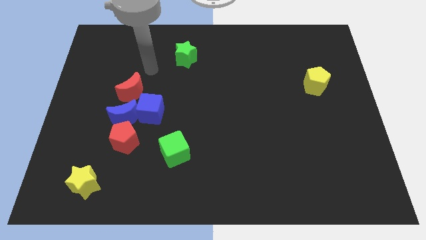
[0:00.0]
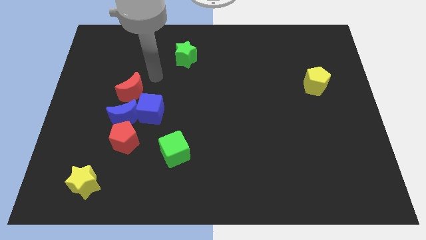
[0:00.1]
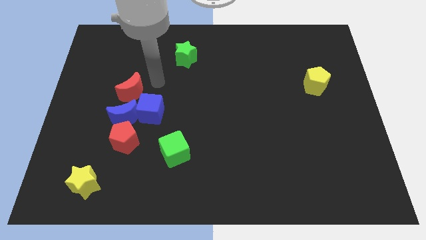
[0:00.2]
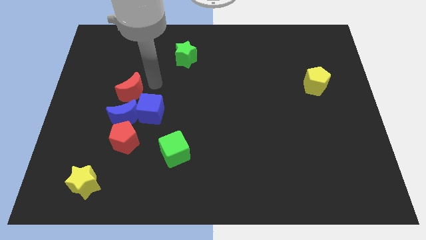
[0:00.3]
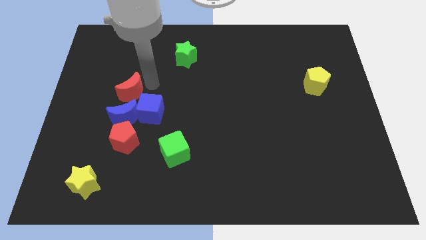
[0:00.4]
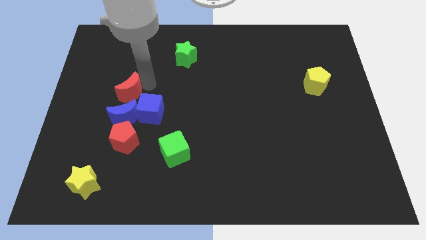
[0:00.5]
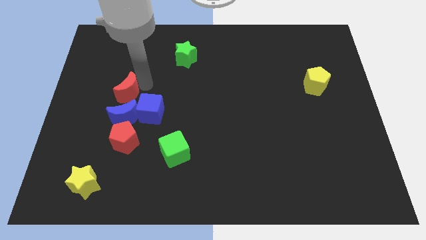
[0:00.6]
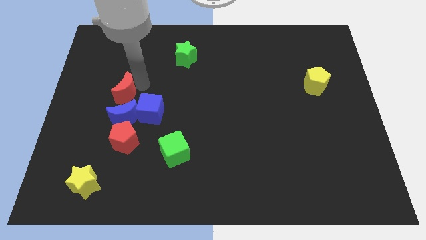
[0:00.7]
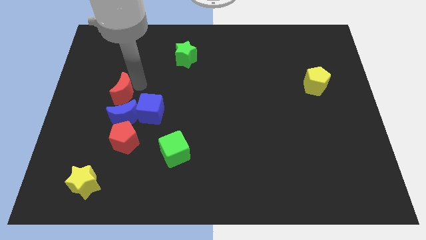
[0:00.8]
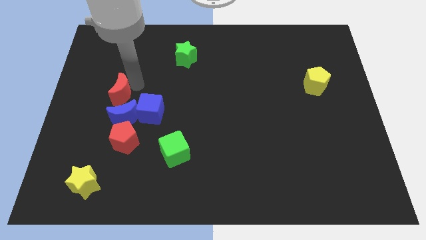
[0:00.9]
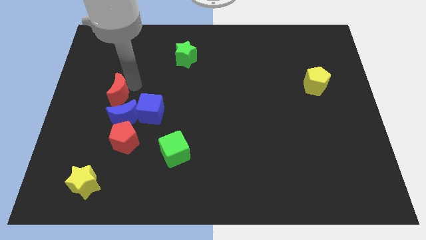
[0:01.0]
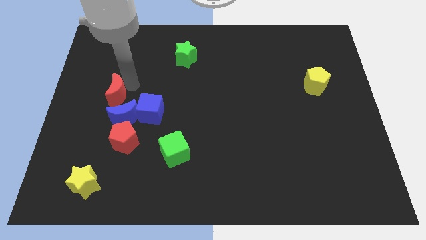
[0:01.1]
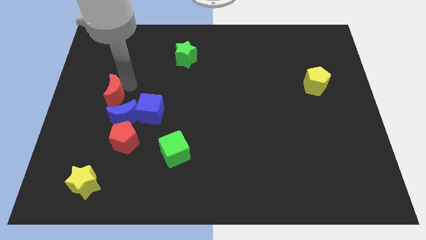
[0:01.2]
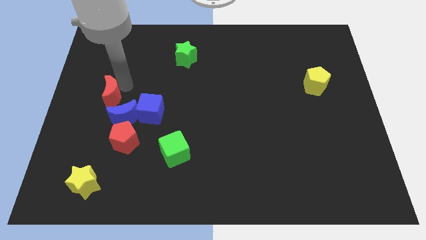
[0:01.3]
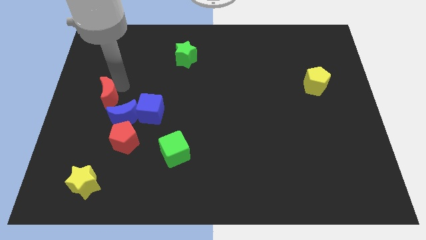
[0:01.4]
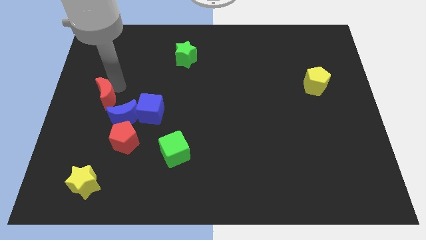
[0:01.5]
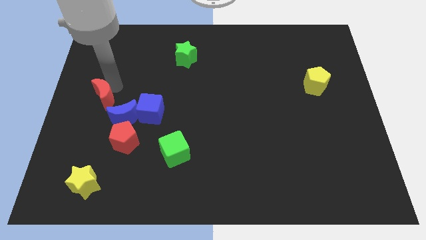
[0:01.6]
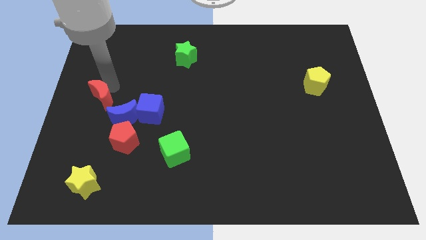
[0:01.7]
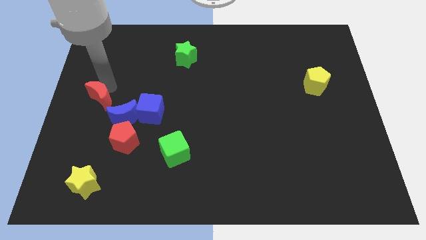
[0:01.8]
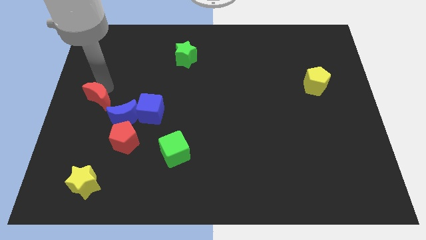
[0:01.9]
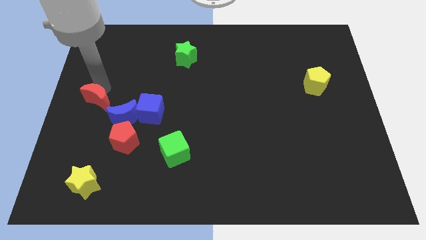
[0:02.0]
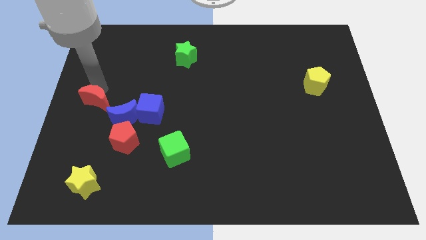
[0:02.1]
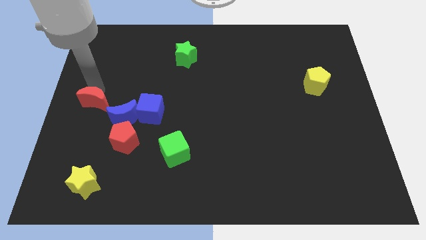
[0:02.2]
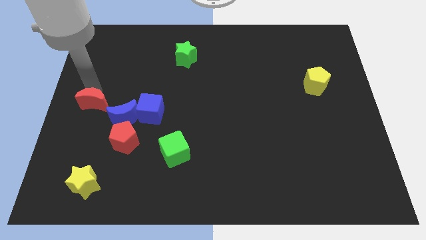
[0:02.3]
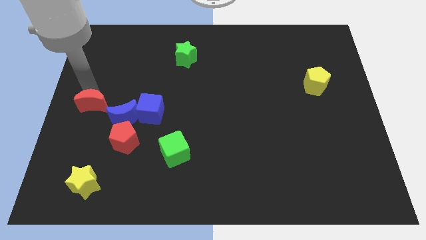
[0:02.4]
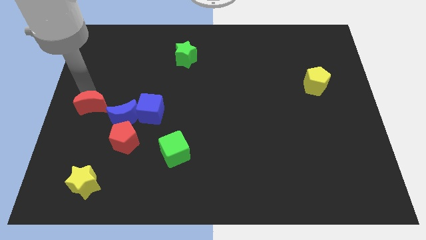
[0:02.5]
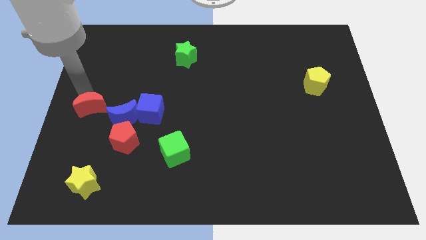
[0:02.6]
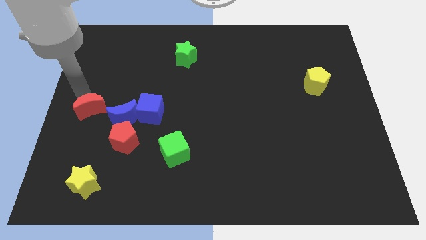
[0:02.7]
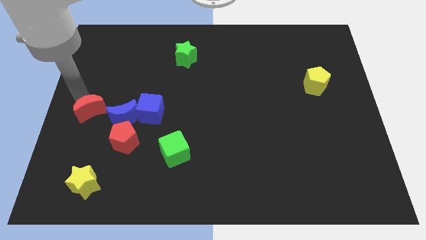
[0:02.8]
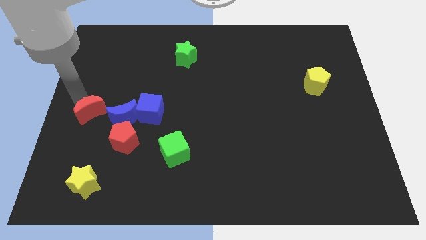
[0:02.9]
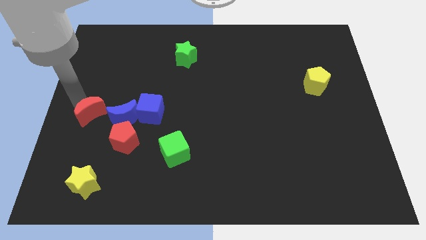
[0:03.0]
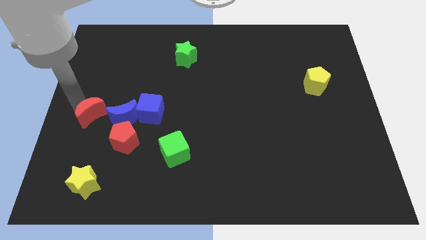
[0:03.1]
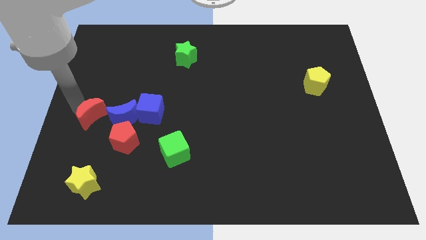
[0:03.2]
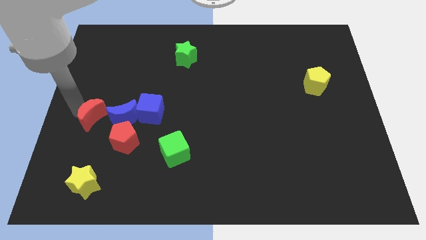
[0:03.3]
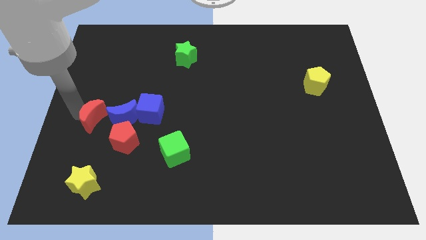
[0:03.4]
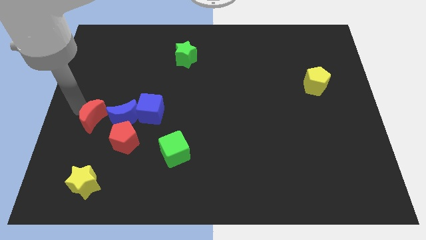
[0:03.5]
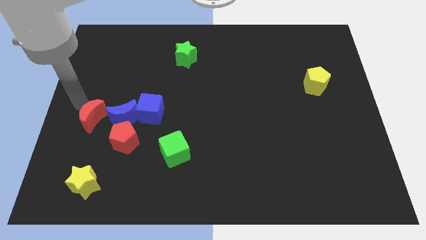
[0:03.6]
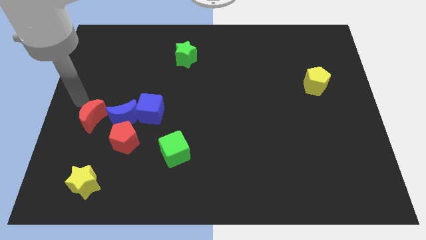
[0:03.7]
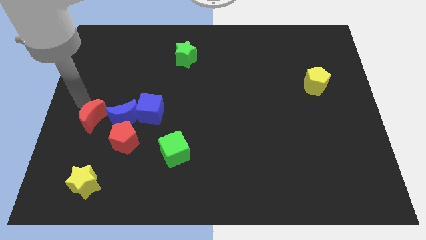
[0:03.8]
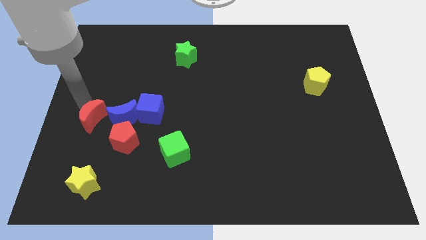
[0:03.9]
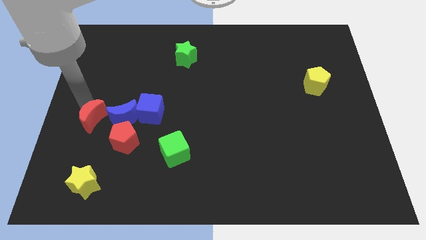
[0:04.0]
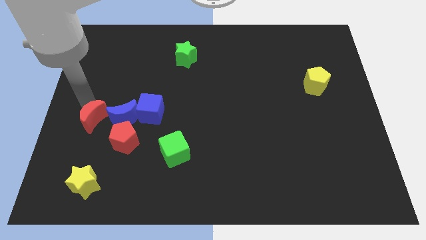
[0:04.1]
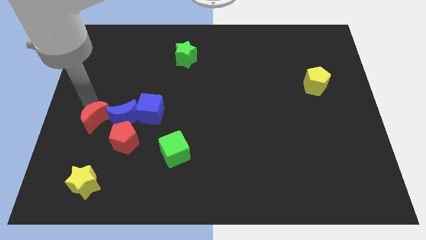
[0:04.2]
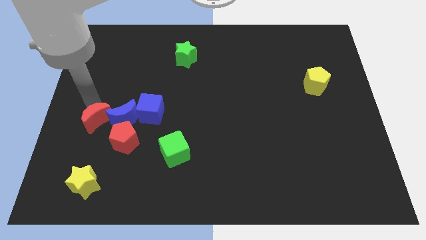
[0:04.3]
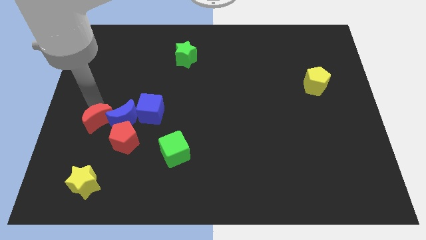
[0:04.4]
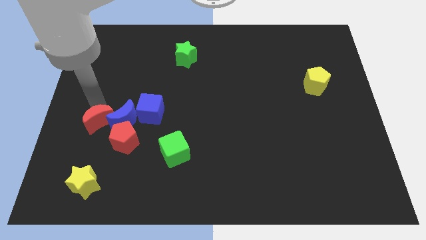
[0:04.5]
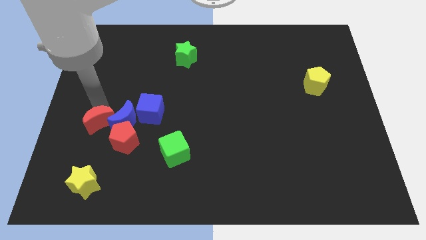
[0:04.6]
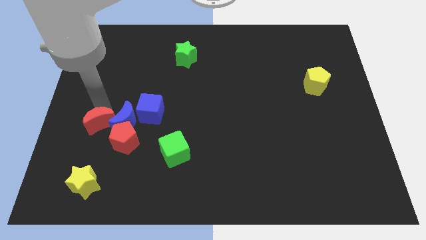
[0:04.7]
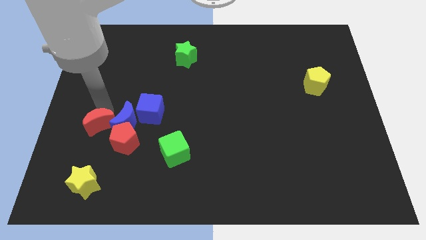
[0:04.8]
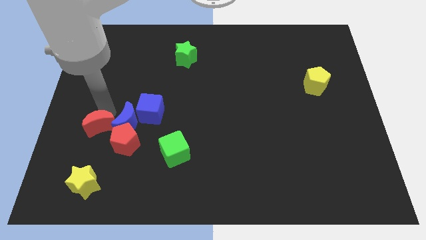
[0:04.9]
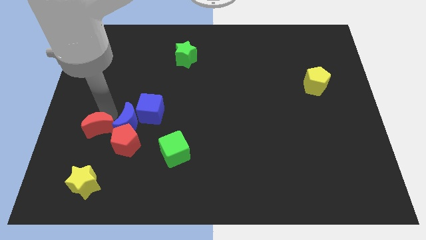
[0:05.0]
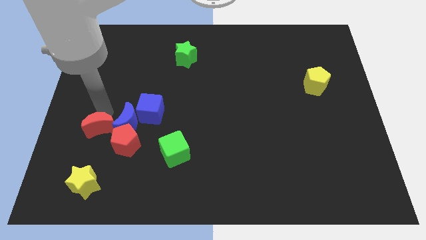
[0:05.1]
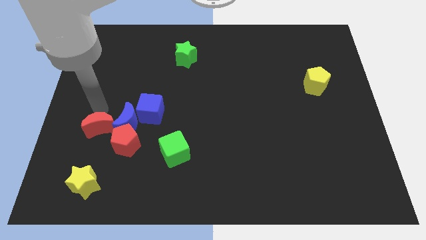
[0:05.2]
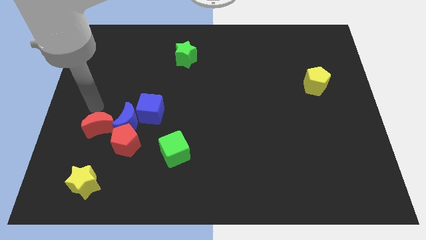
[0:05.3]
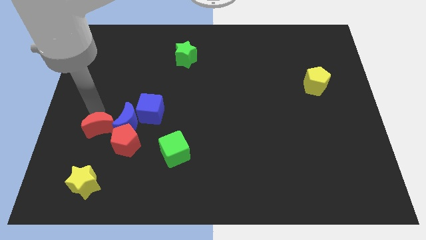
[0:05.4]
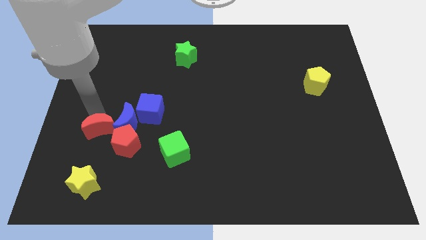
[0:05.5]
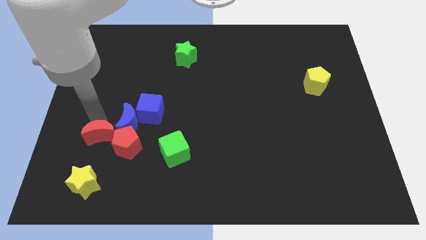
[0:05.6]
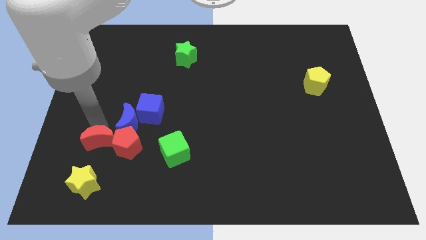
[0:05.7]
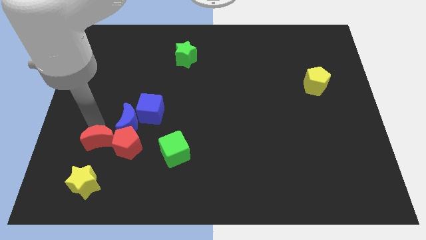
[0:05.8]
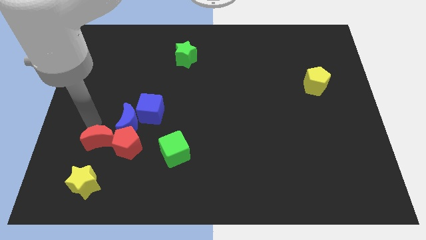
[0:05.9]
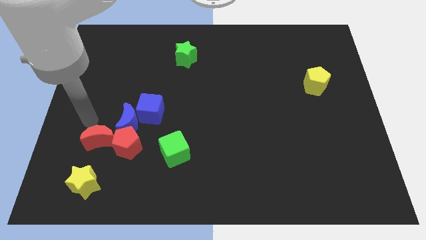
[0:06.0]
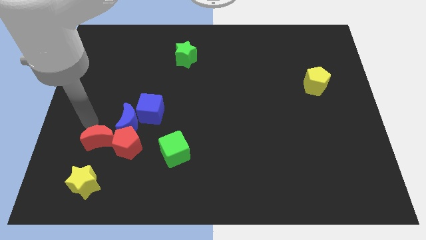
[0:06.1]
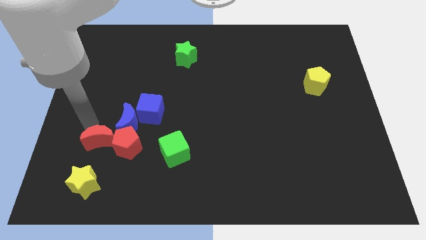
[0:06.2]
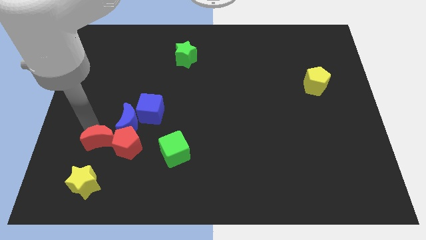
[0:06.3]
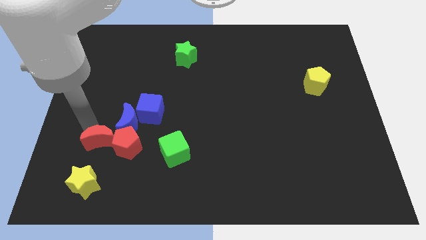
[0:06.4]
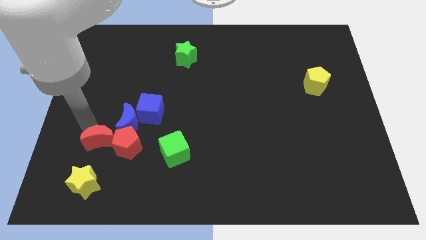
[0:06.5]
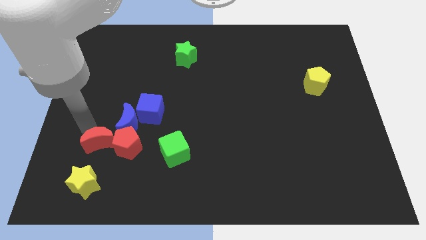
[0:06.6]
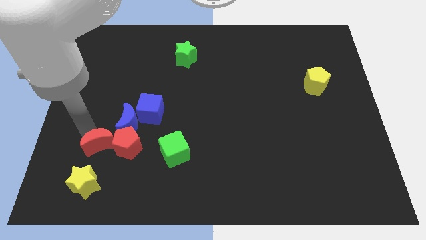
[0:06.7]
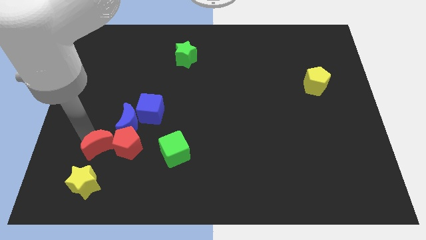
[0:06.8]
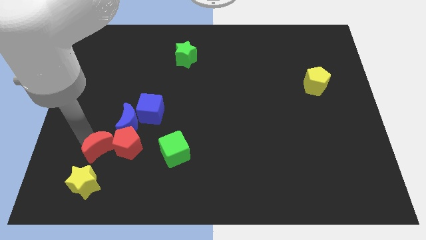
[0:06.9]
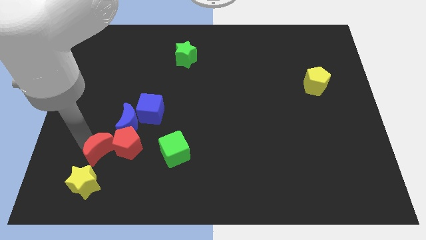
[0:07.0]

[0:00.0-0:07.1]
put the red moon to the left side of the green cube
